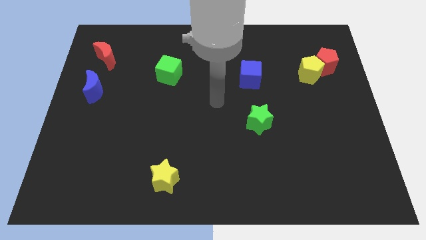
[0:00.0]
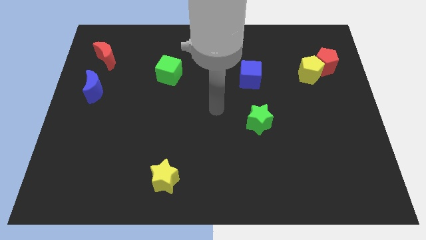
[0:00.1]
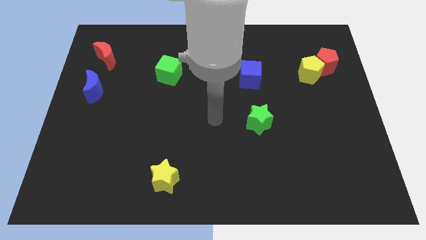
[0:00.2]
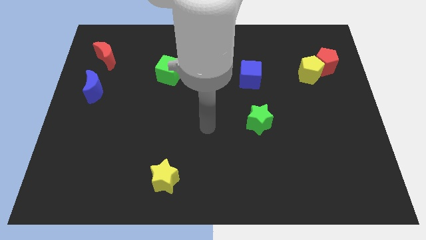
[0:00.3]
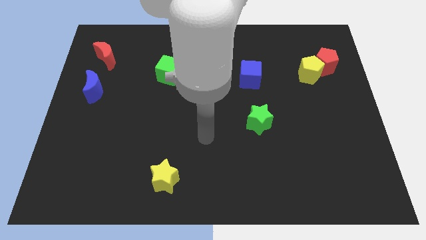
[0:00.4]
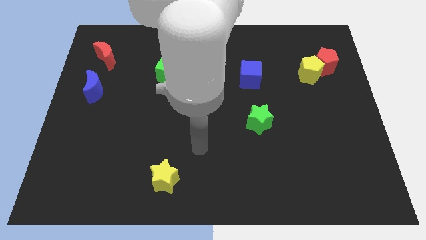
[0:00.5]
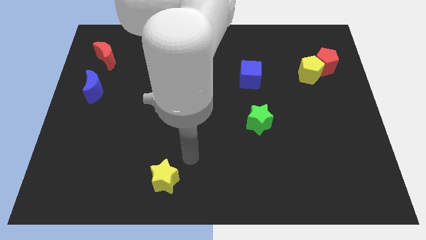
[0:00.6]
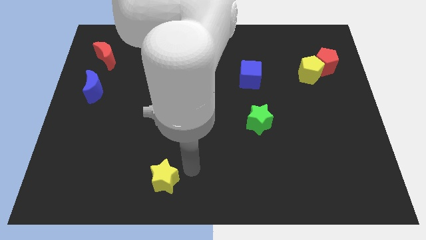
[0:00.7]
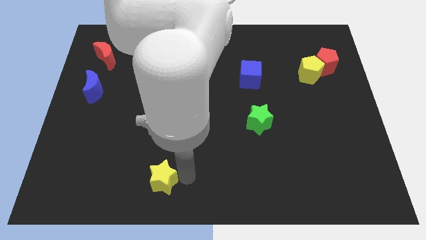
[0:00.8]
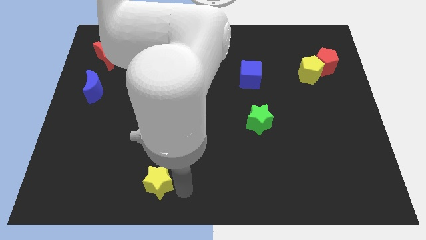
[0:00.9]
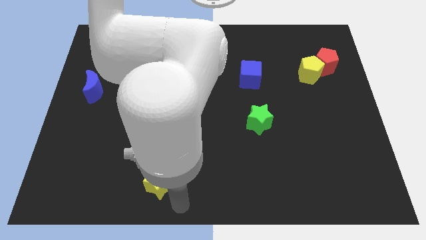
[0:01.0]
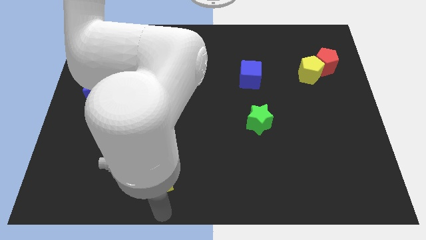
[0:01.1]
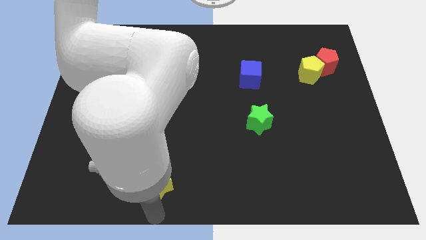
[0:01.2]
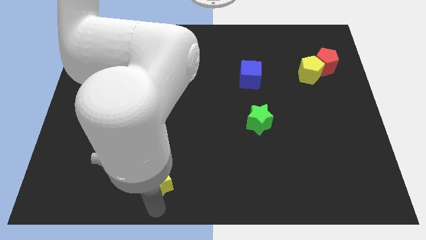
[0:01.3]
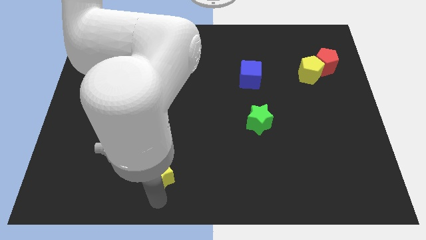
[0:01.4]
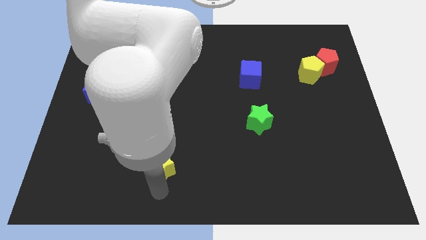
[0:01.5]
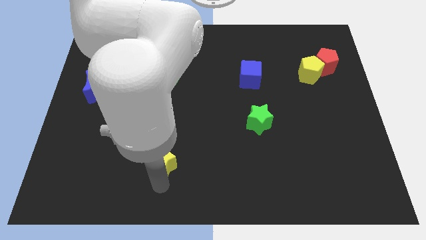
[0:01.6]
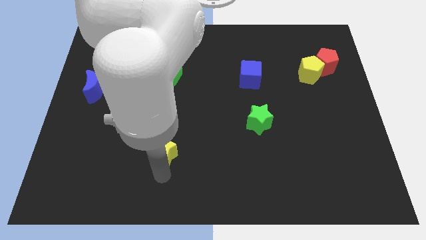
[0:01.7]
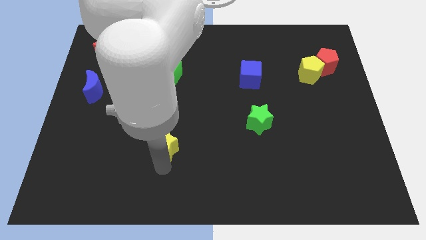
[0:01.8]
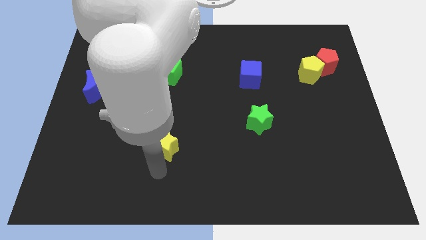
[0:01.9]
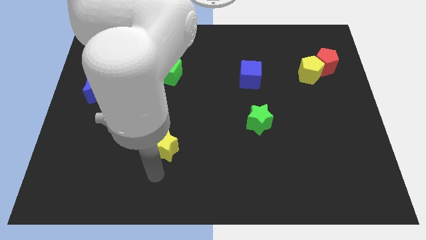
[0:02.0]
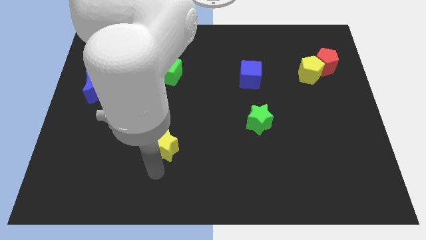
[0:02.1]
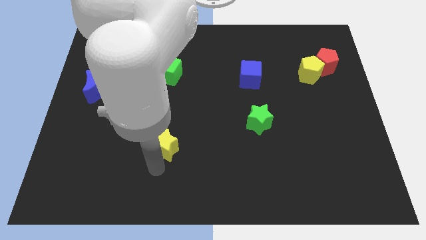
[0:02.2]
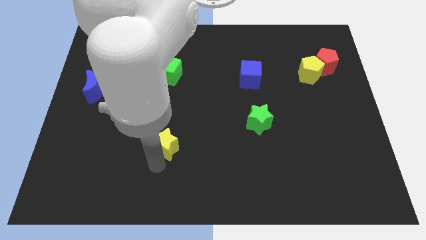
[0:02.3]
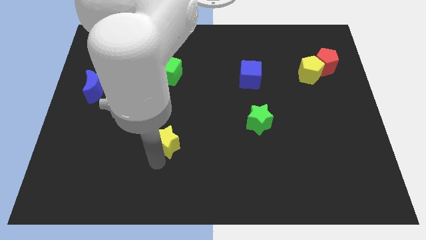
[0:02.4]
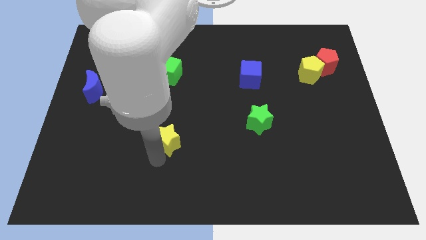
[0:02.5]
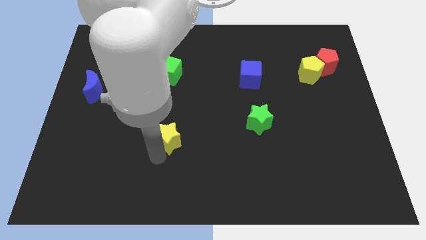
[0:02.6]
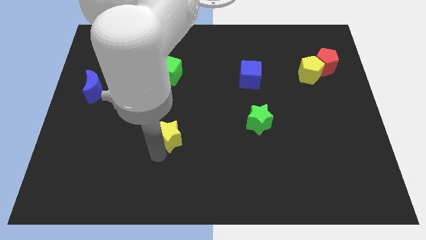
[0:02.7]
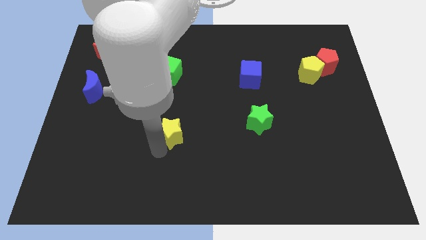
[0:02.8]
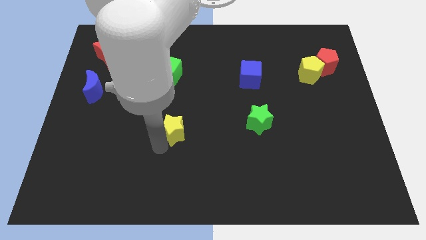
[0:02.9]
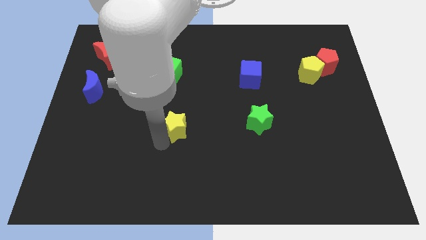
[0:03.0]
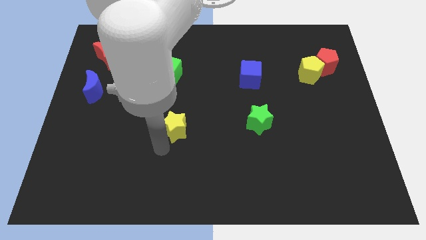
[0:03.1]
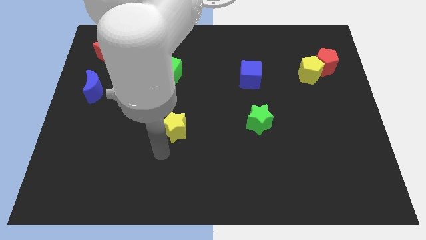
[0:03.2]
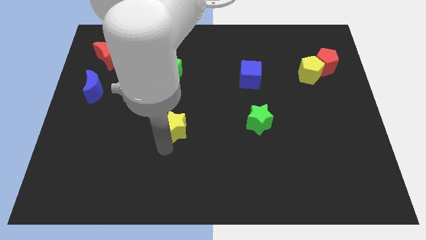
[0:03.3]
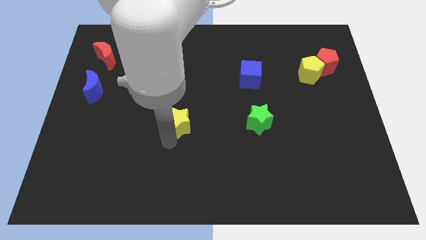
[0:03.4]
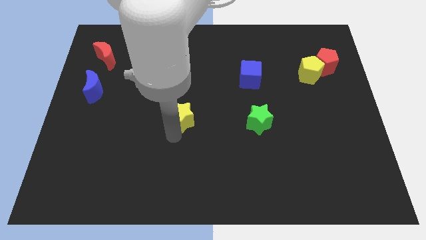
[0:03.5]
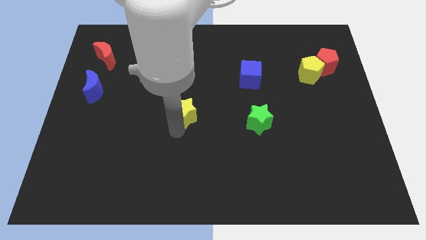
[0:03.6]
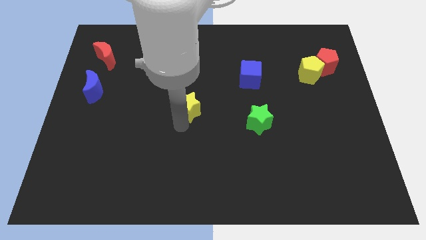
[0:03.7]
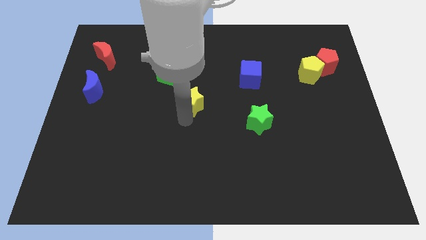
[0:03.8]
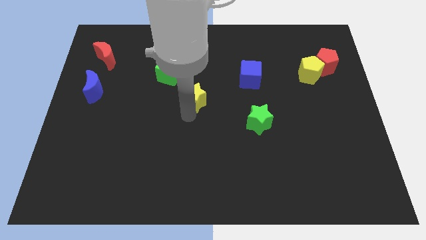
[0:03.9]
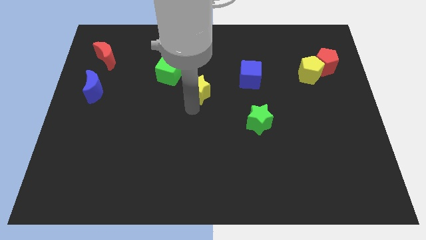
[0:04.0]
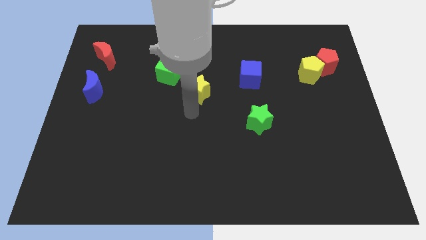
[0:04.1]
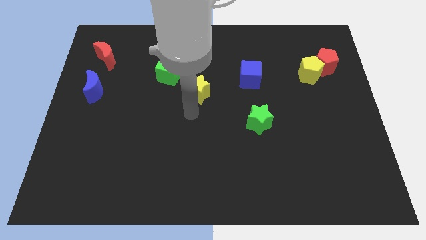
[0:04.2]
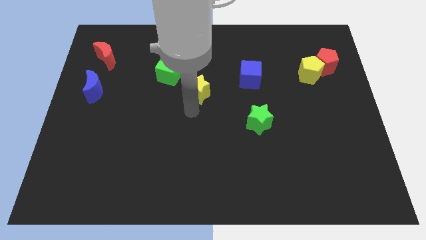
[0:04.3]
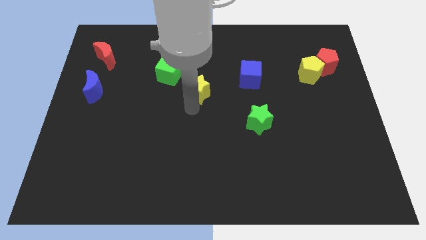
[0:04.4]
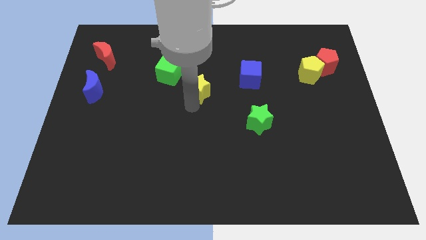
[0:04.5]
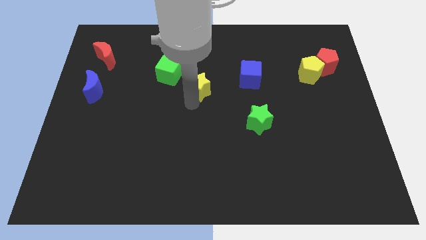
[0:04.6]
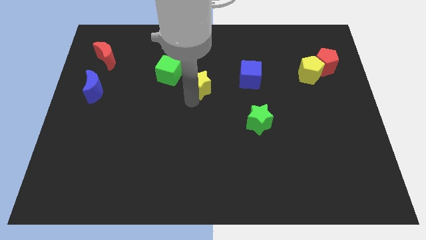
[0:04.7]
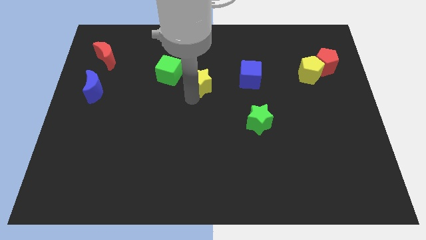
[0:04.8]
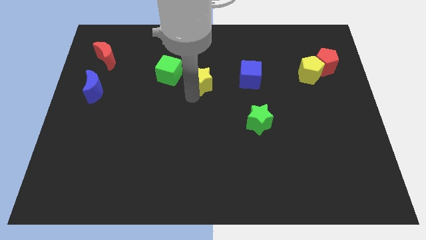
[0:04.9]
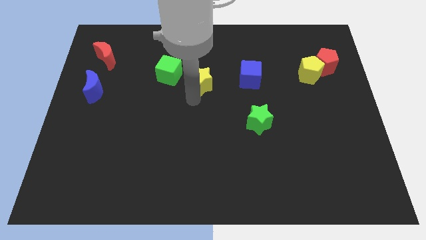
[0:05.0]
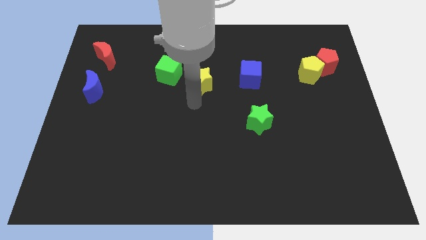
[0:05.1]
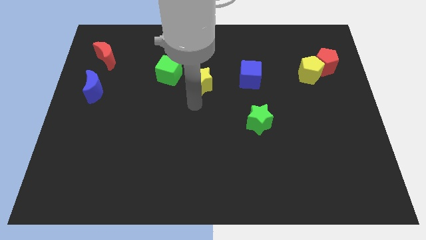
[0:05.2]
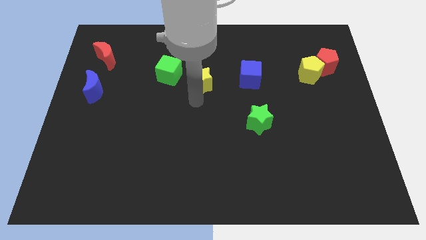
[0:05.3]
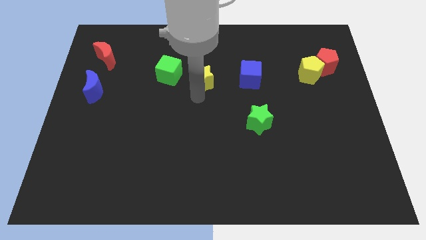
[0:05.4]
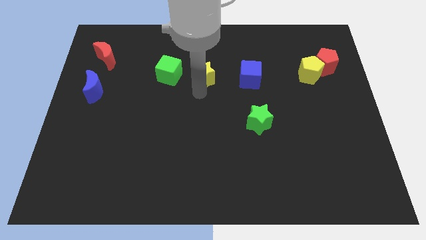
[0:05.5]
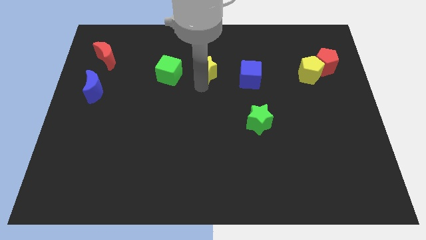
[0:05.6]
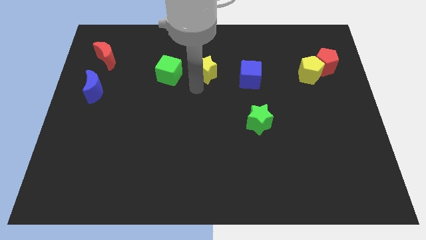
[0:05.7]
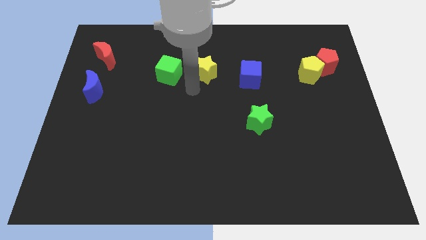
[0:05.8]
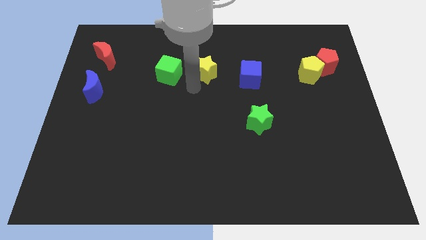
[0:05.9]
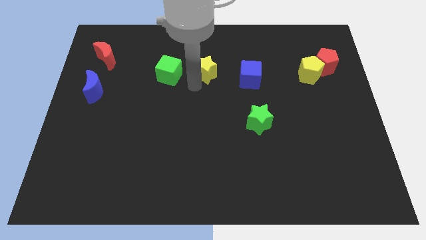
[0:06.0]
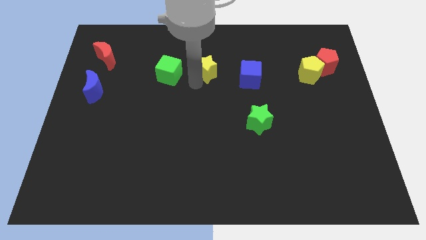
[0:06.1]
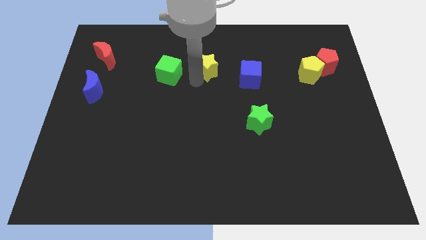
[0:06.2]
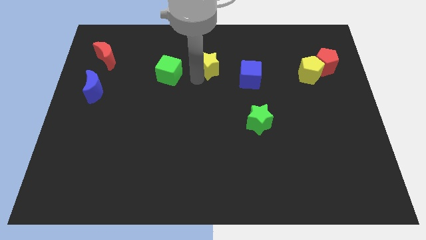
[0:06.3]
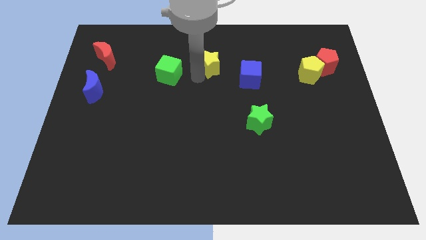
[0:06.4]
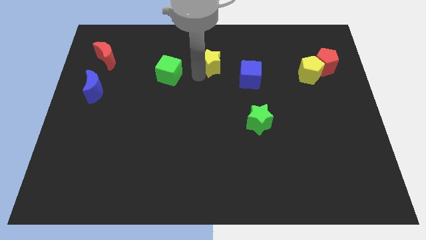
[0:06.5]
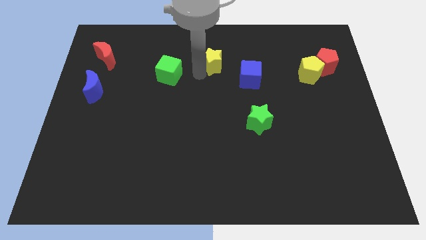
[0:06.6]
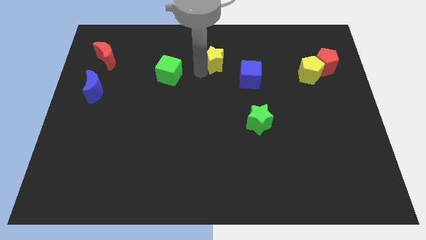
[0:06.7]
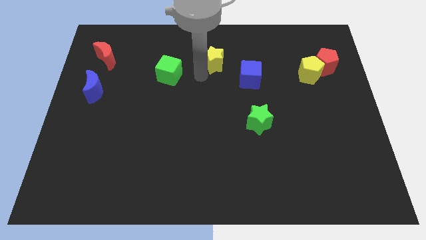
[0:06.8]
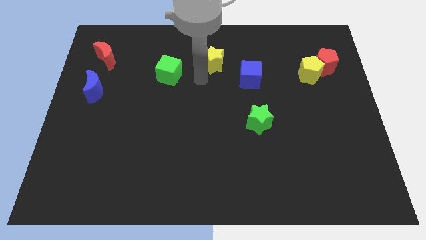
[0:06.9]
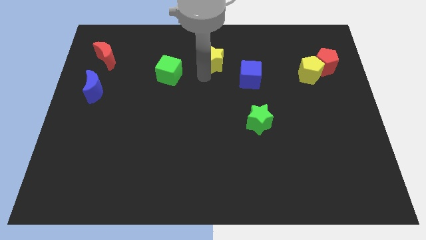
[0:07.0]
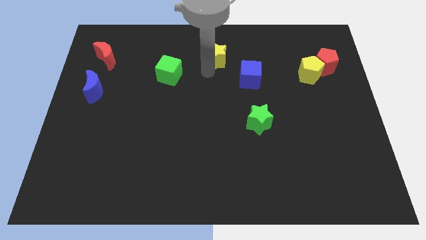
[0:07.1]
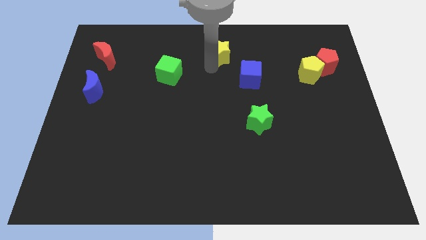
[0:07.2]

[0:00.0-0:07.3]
slide the yellow star to the top side
